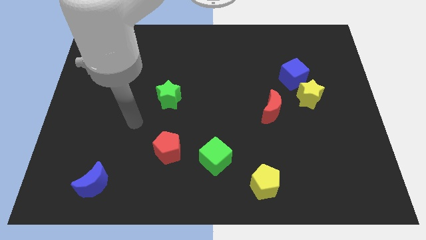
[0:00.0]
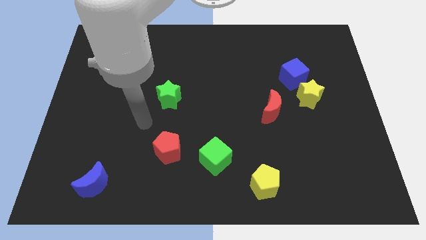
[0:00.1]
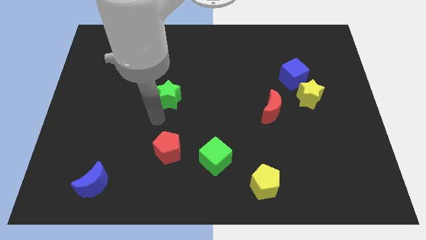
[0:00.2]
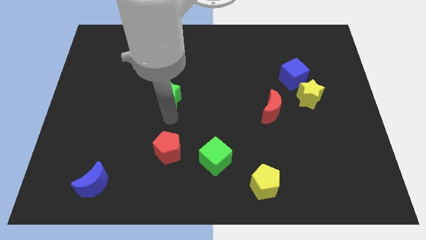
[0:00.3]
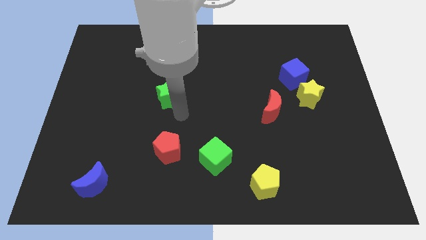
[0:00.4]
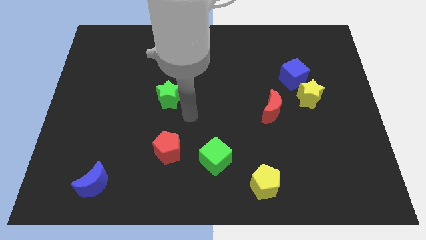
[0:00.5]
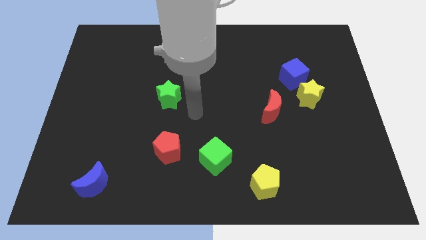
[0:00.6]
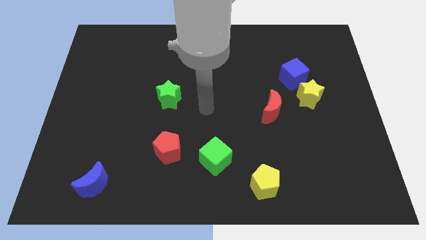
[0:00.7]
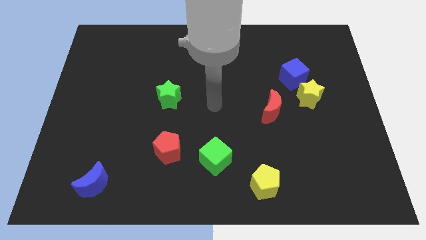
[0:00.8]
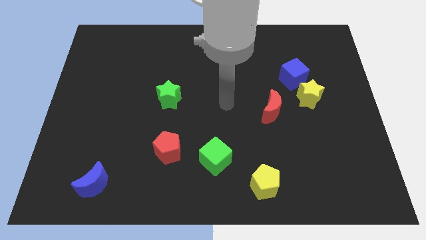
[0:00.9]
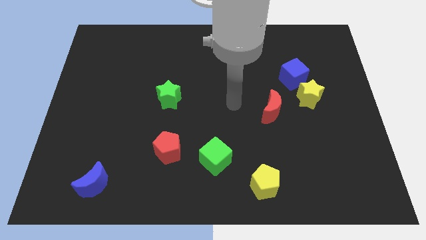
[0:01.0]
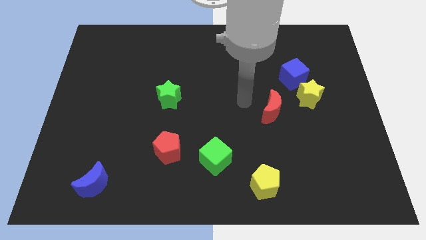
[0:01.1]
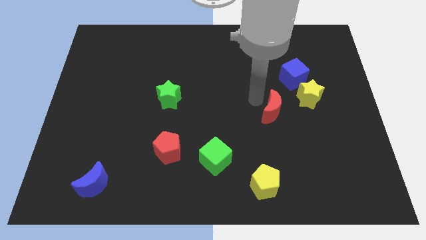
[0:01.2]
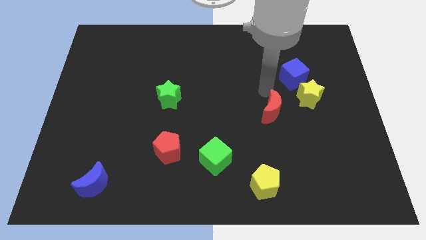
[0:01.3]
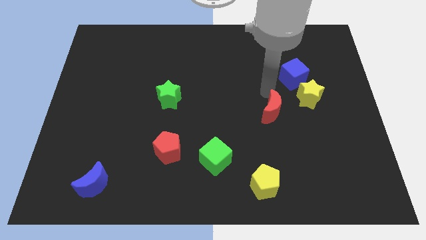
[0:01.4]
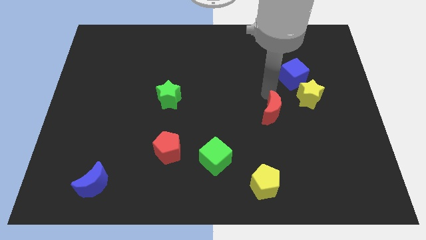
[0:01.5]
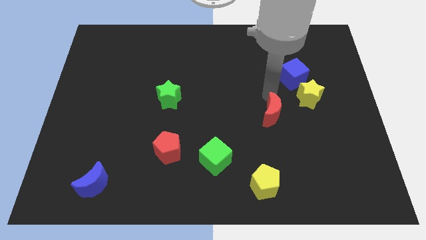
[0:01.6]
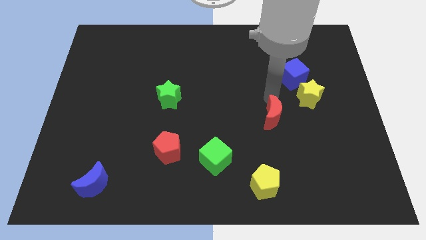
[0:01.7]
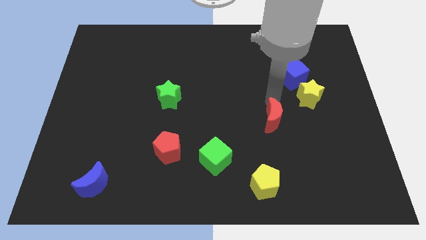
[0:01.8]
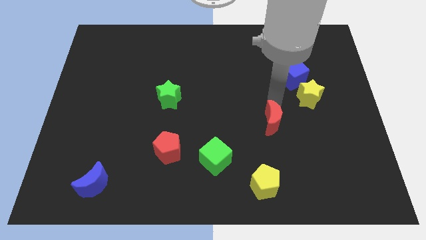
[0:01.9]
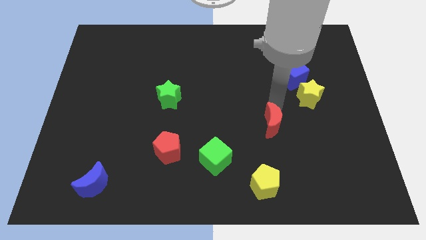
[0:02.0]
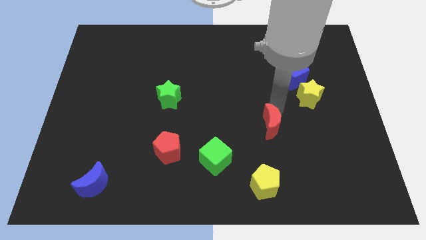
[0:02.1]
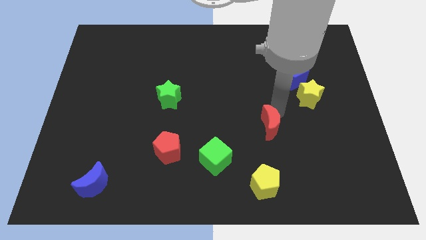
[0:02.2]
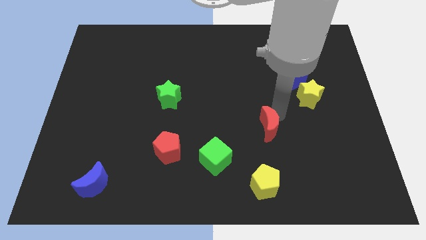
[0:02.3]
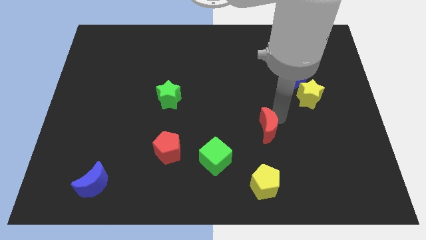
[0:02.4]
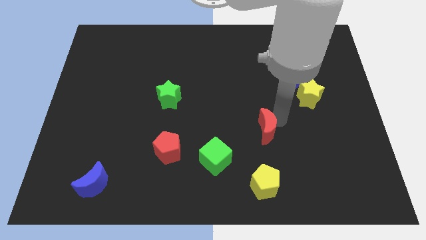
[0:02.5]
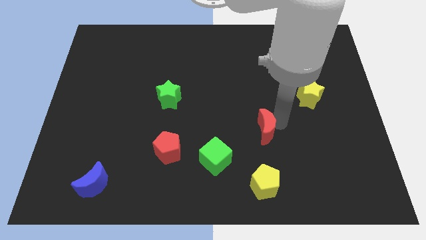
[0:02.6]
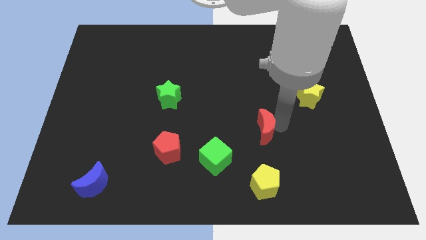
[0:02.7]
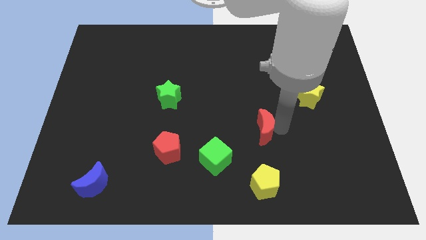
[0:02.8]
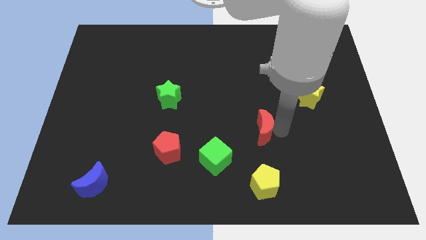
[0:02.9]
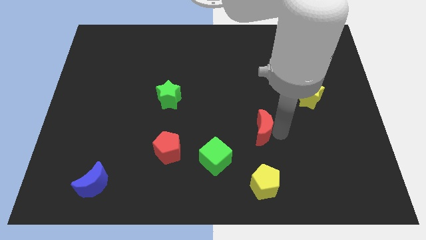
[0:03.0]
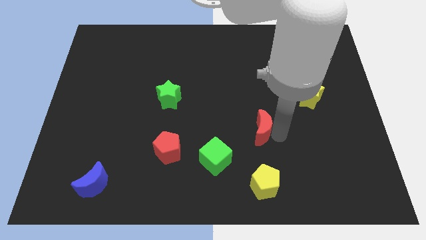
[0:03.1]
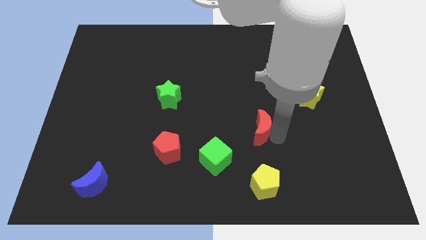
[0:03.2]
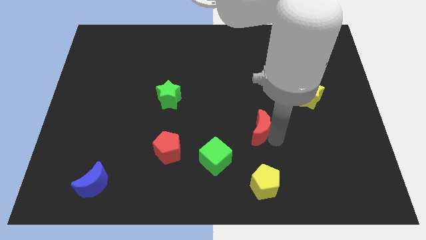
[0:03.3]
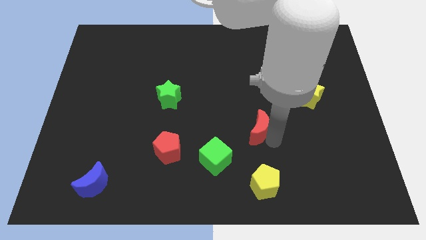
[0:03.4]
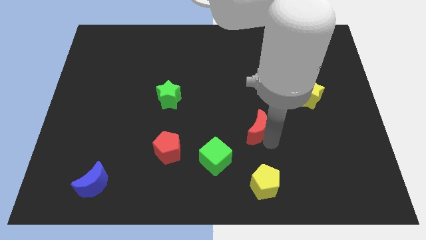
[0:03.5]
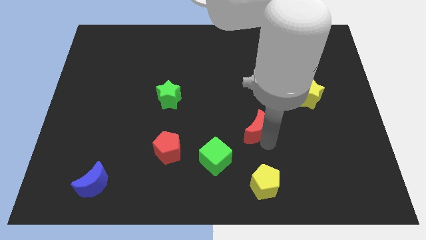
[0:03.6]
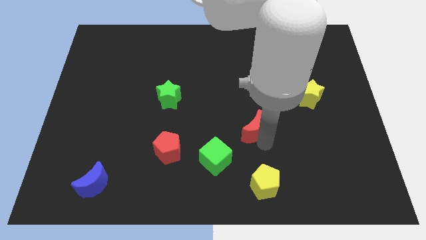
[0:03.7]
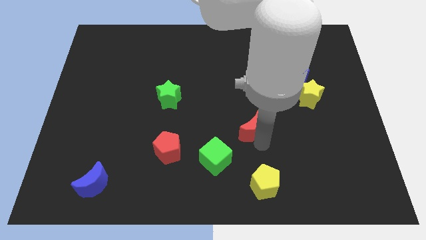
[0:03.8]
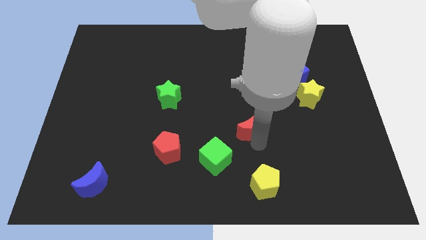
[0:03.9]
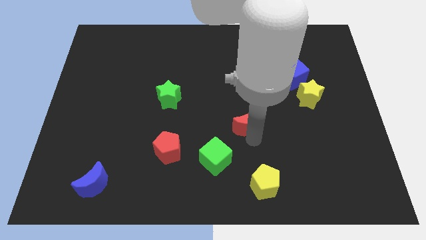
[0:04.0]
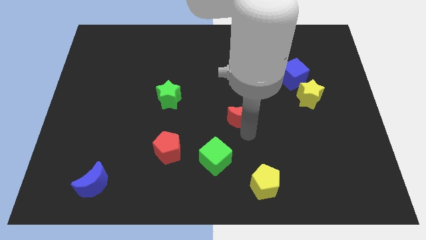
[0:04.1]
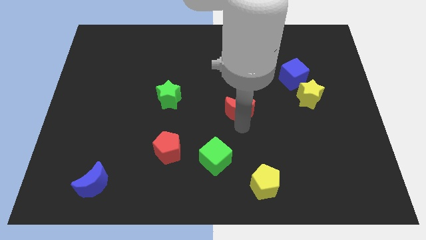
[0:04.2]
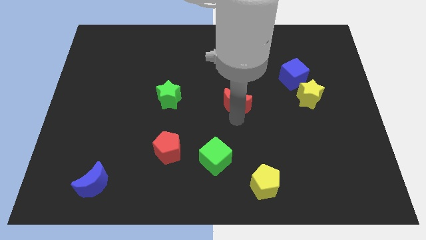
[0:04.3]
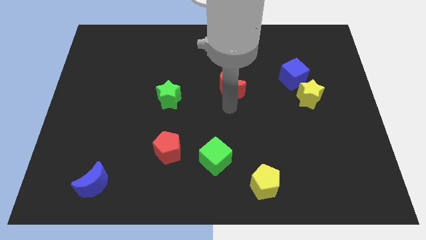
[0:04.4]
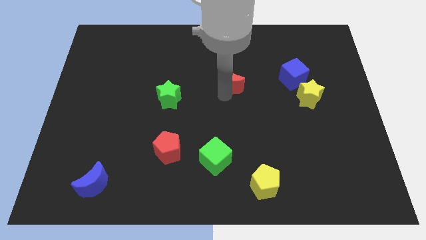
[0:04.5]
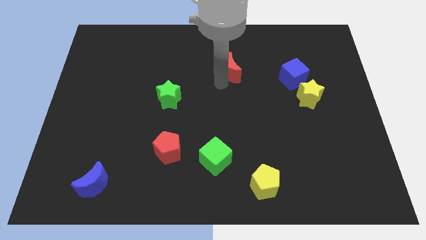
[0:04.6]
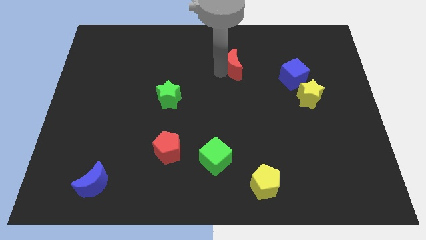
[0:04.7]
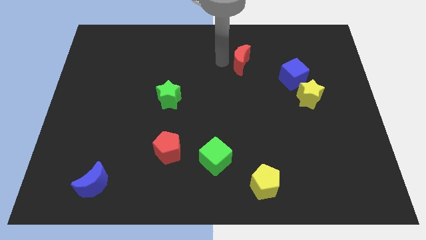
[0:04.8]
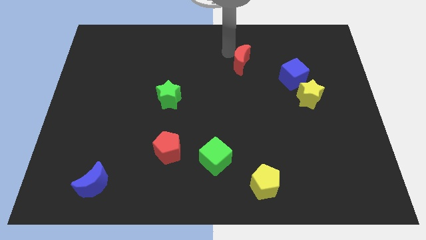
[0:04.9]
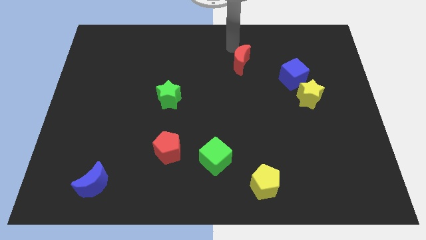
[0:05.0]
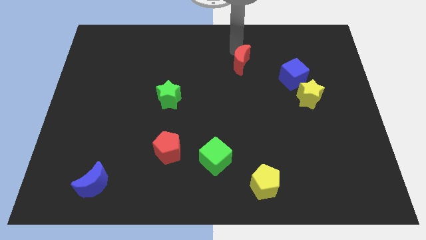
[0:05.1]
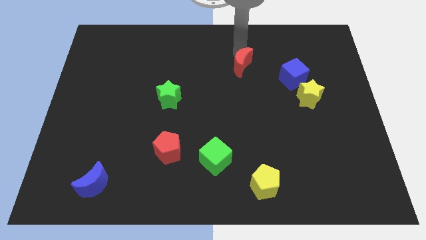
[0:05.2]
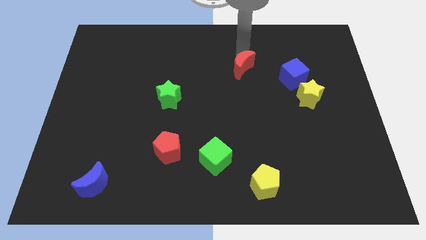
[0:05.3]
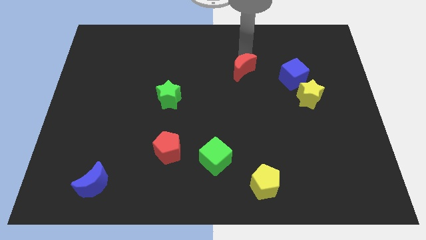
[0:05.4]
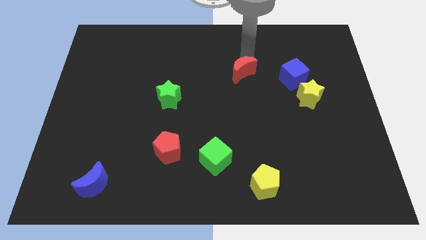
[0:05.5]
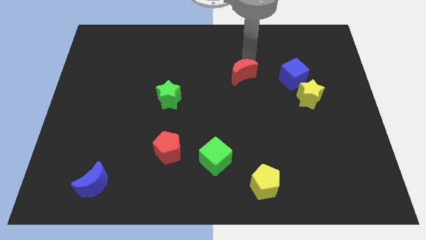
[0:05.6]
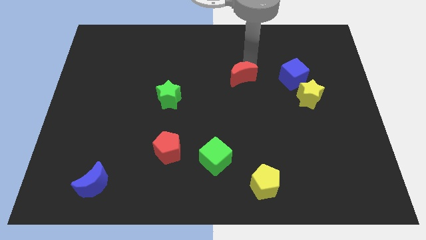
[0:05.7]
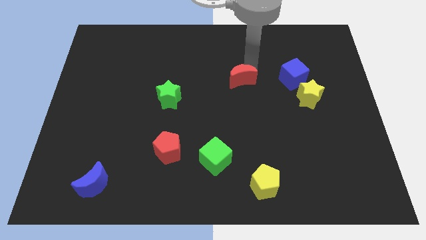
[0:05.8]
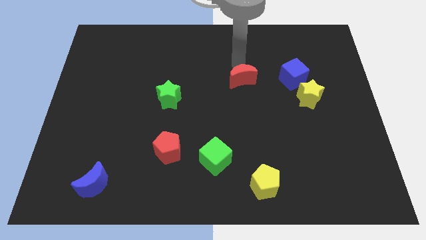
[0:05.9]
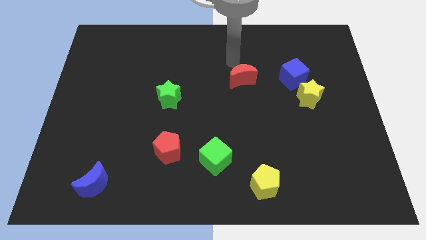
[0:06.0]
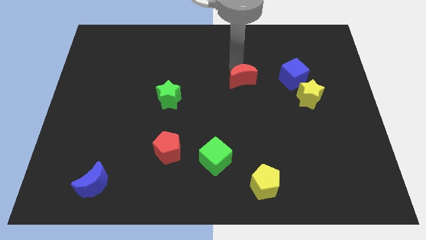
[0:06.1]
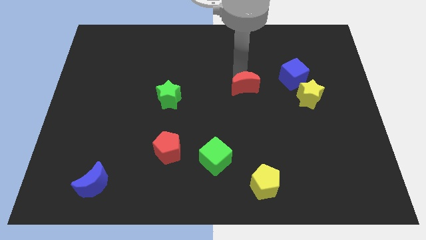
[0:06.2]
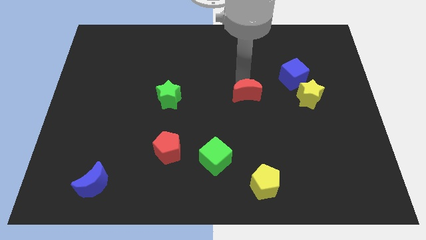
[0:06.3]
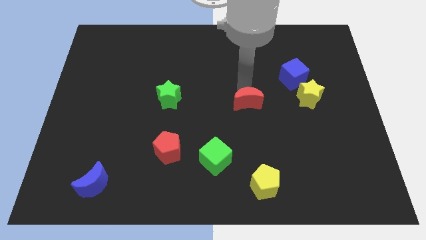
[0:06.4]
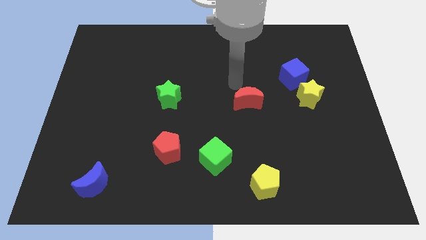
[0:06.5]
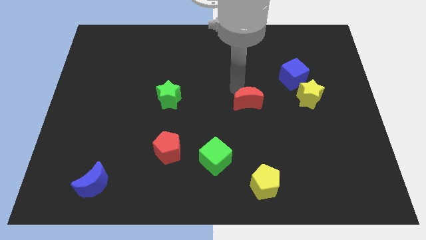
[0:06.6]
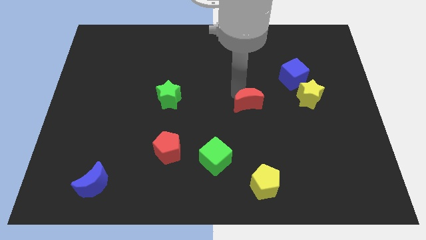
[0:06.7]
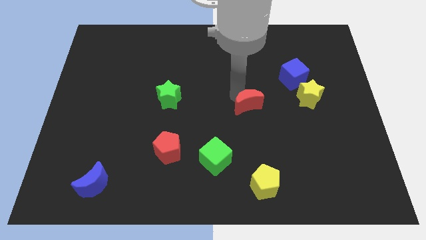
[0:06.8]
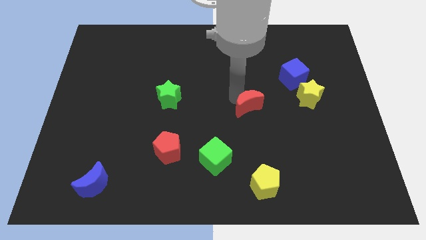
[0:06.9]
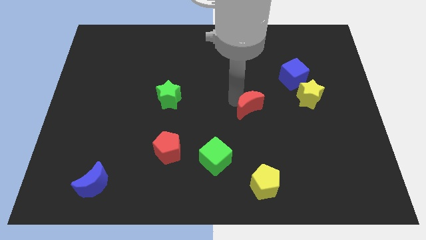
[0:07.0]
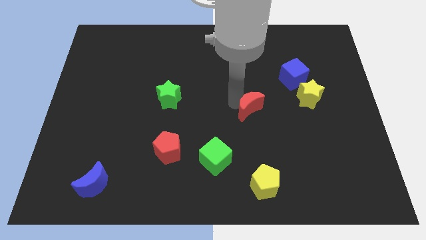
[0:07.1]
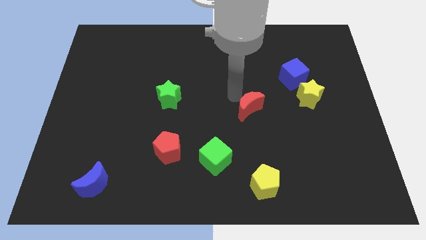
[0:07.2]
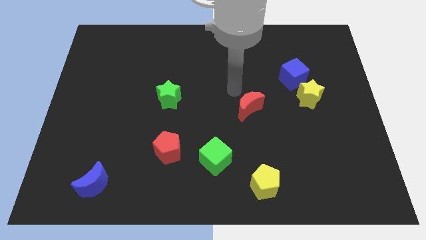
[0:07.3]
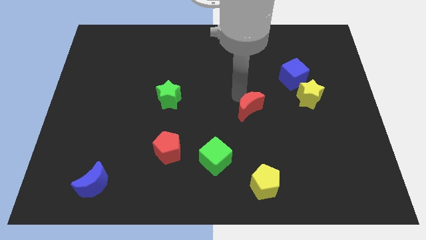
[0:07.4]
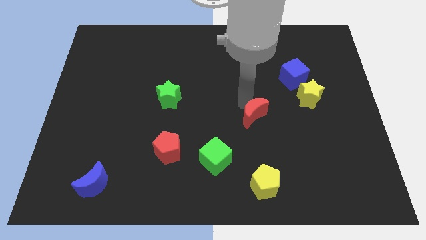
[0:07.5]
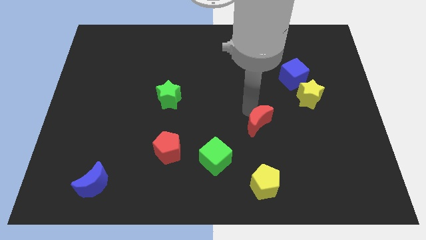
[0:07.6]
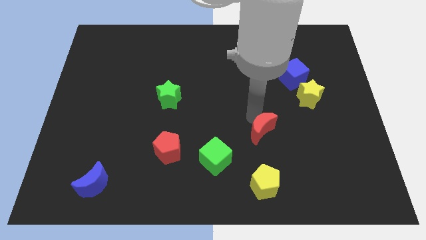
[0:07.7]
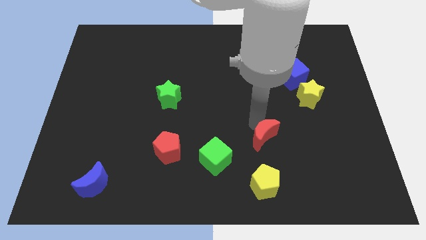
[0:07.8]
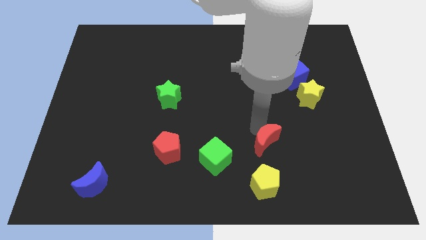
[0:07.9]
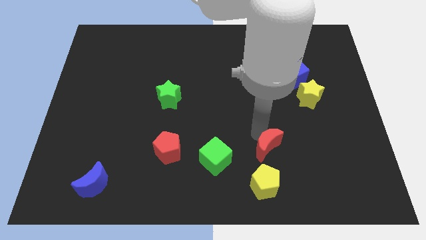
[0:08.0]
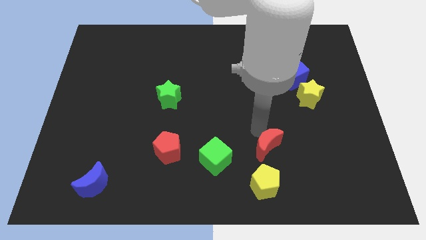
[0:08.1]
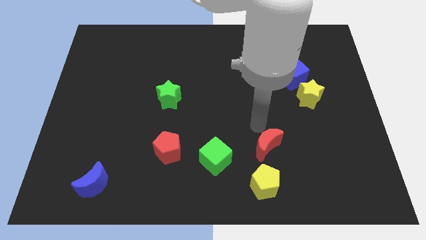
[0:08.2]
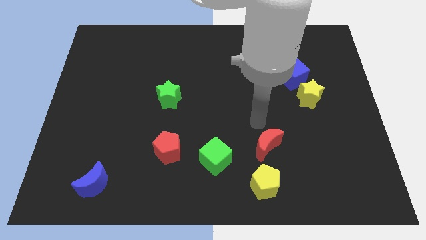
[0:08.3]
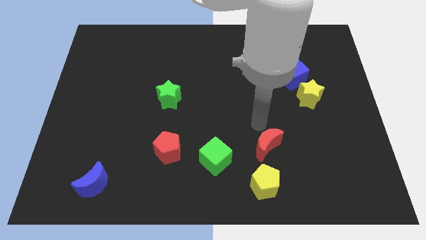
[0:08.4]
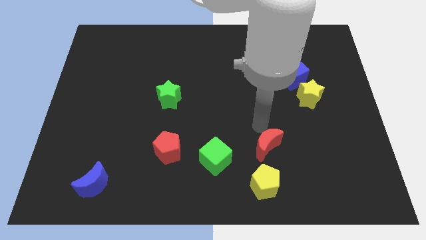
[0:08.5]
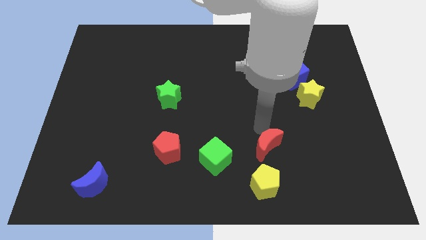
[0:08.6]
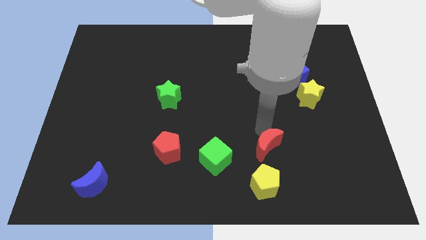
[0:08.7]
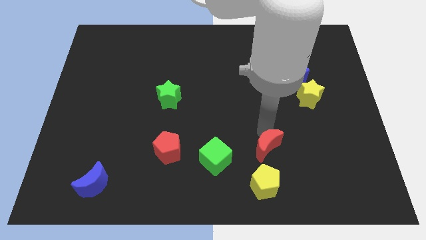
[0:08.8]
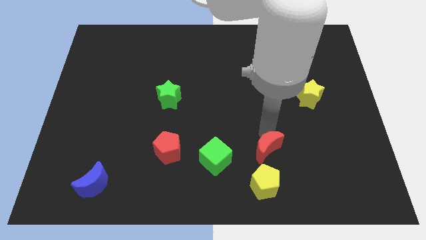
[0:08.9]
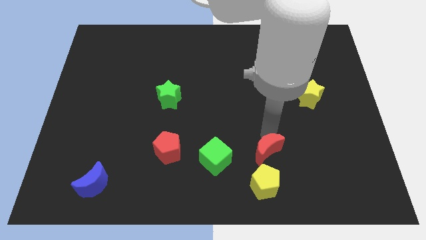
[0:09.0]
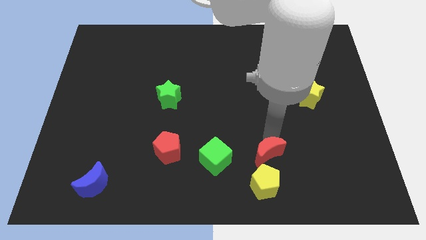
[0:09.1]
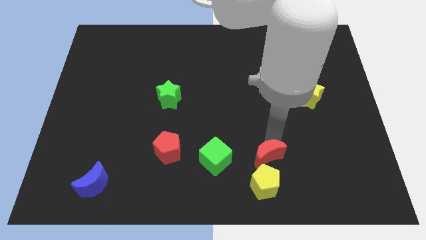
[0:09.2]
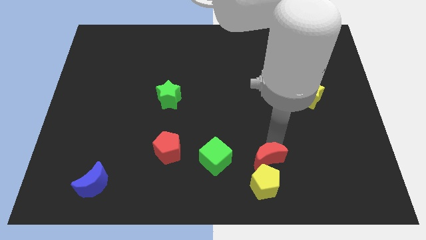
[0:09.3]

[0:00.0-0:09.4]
put the red moon towards the yellow pentagon
